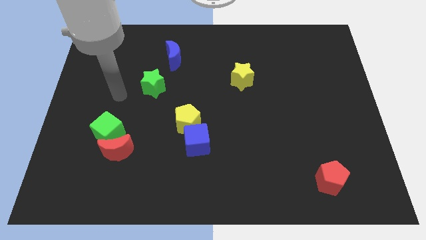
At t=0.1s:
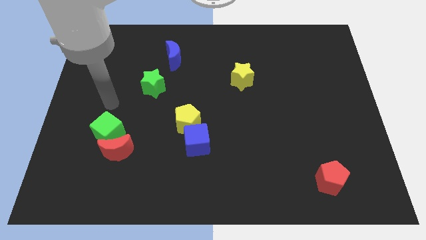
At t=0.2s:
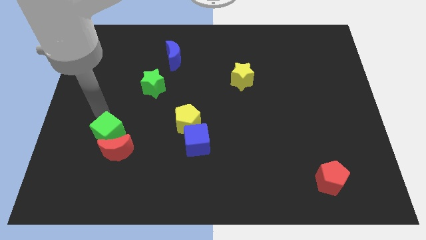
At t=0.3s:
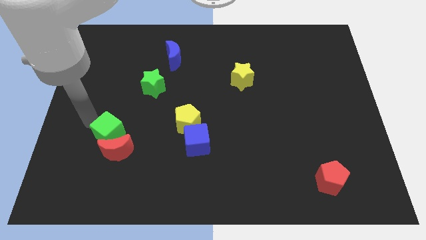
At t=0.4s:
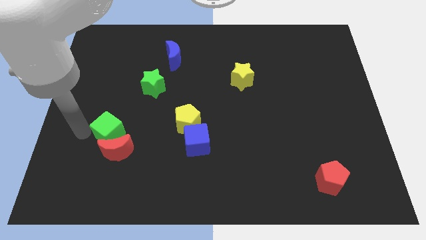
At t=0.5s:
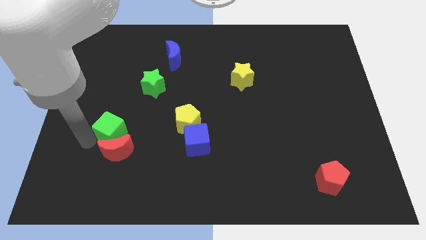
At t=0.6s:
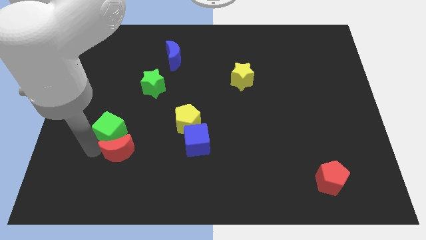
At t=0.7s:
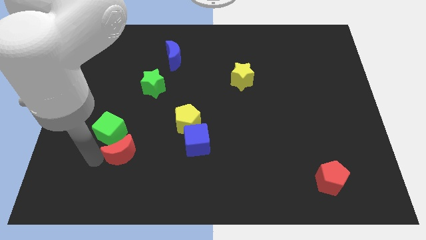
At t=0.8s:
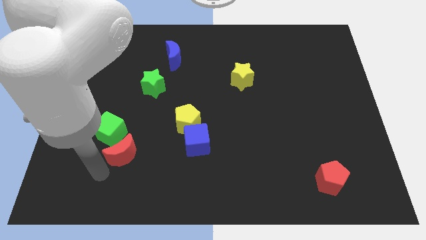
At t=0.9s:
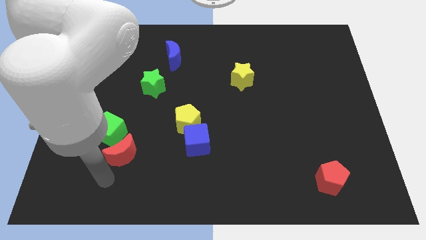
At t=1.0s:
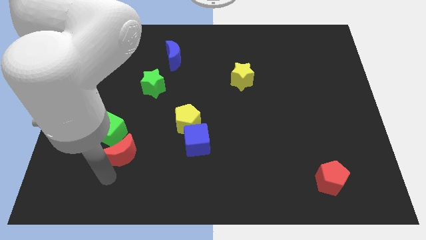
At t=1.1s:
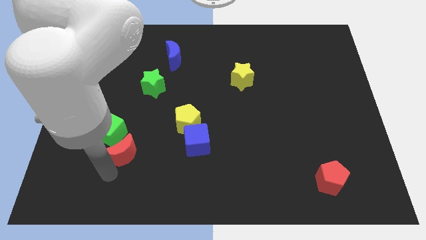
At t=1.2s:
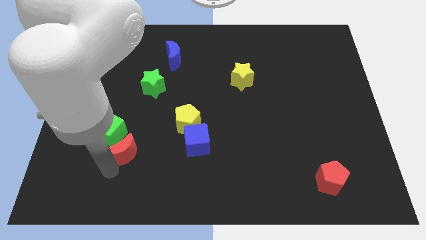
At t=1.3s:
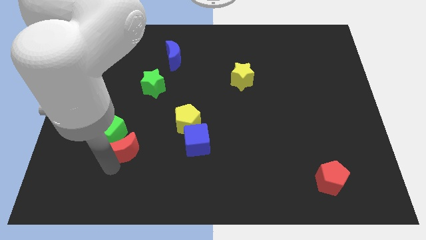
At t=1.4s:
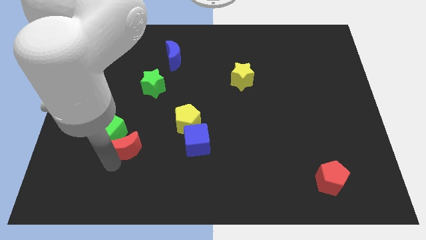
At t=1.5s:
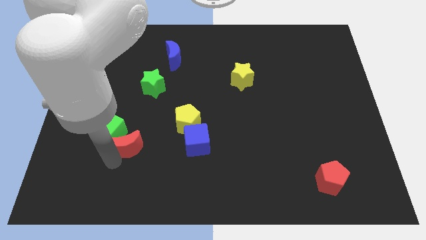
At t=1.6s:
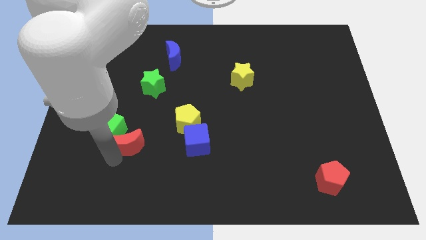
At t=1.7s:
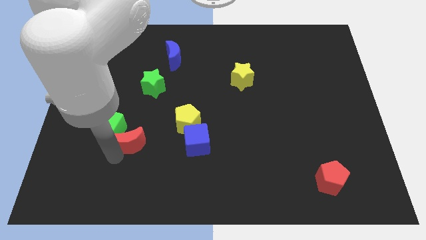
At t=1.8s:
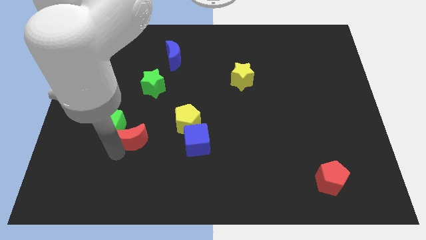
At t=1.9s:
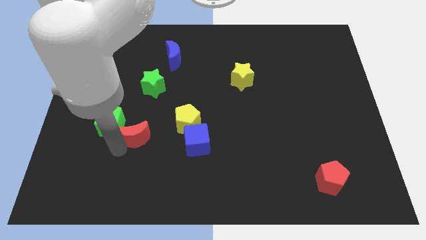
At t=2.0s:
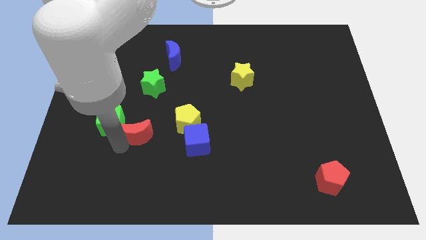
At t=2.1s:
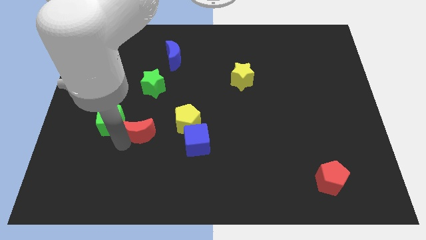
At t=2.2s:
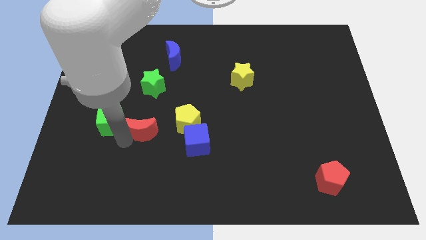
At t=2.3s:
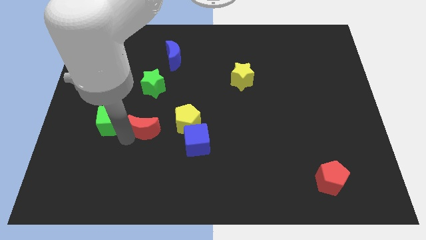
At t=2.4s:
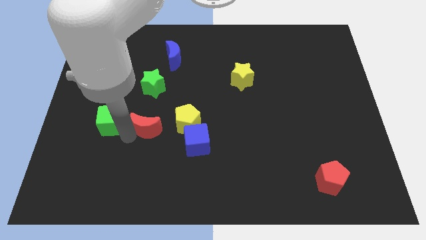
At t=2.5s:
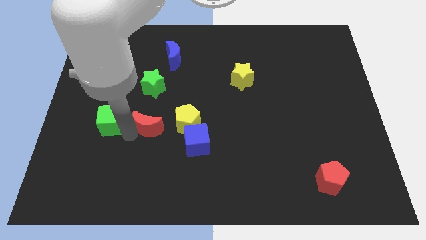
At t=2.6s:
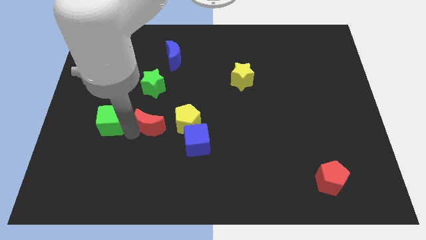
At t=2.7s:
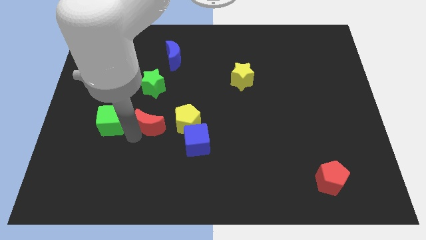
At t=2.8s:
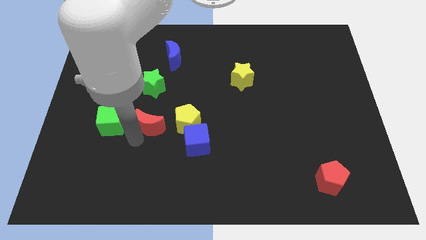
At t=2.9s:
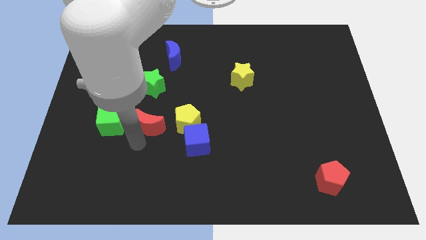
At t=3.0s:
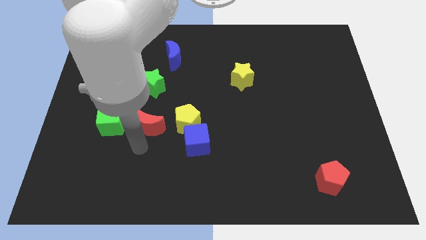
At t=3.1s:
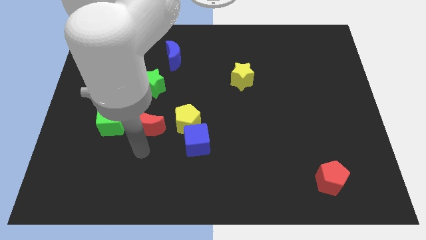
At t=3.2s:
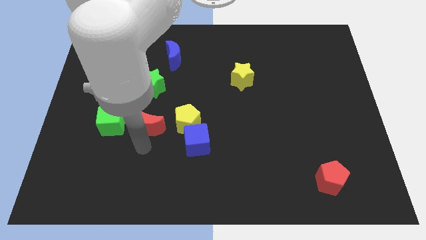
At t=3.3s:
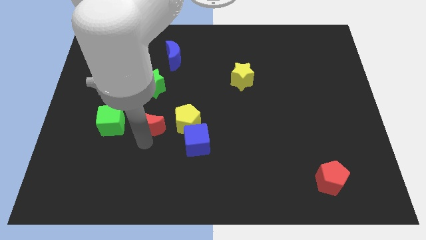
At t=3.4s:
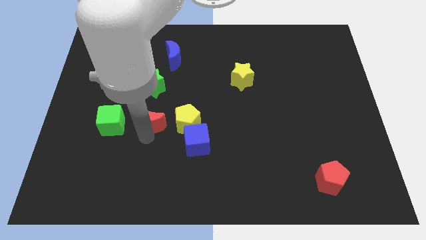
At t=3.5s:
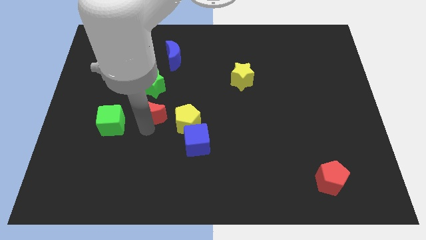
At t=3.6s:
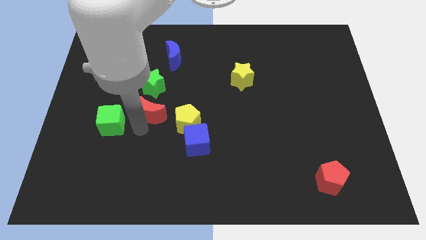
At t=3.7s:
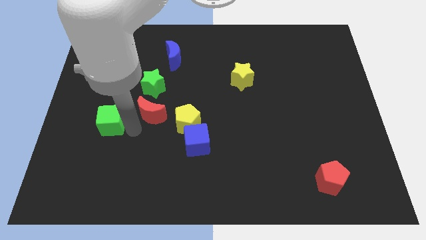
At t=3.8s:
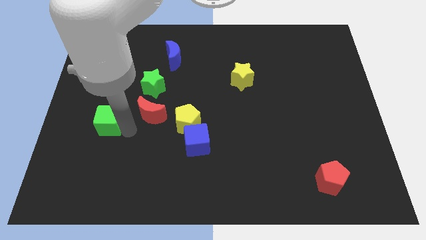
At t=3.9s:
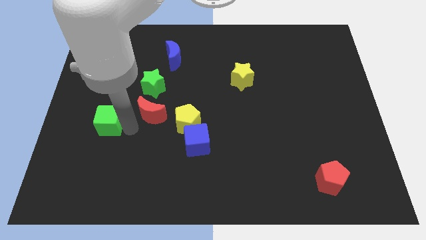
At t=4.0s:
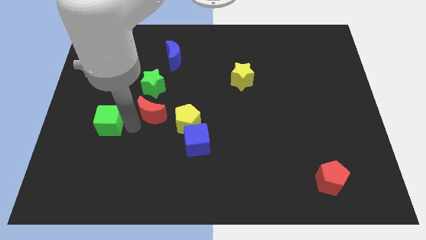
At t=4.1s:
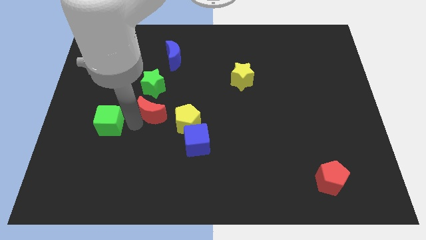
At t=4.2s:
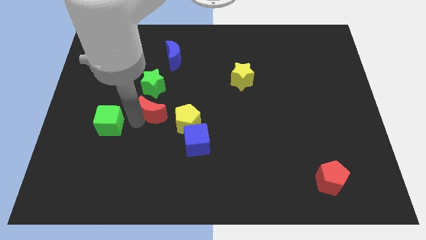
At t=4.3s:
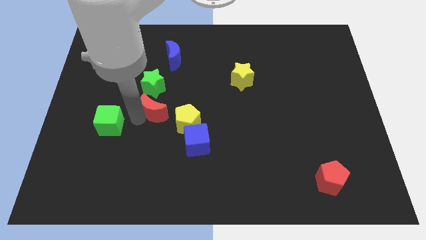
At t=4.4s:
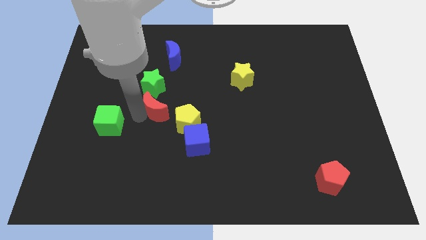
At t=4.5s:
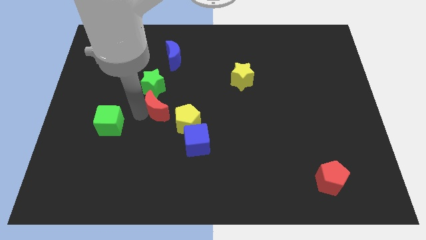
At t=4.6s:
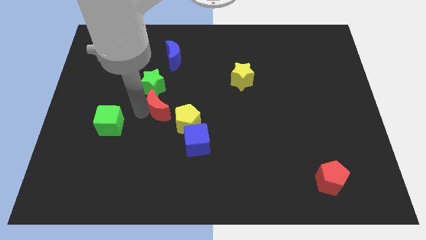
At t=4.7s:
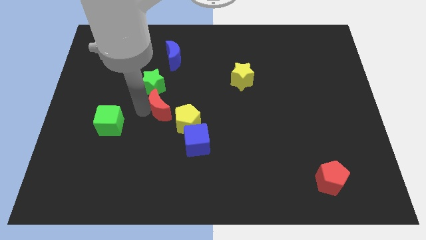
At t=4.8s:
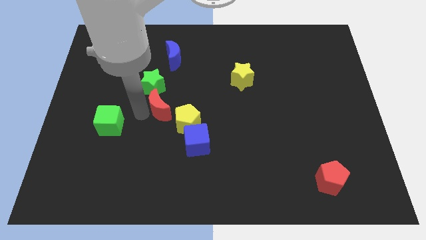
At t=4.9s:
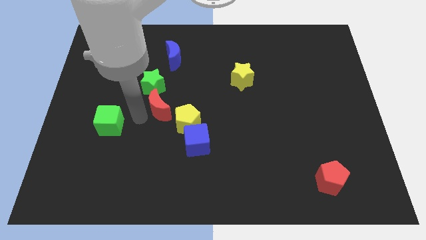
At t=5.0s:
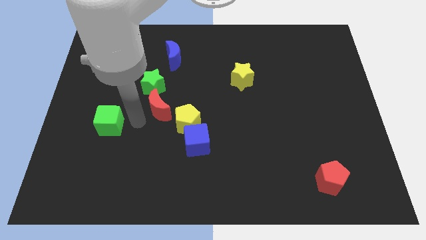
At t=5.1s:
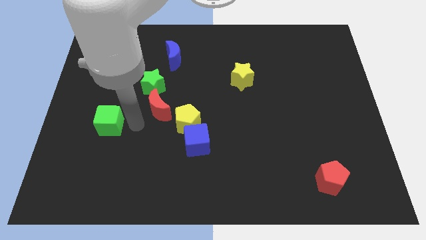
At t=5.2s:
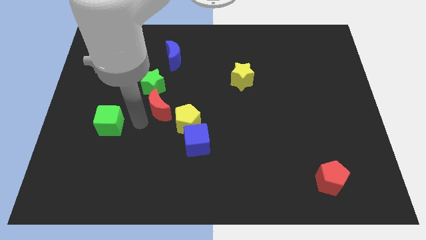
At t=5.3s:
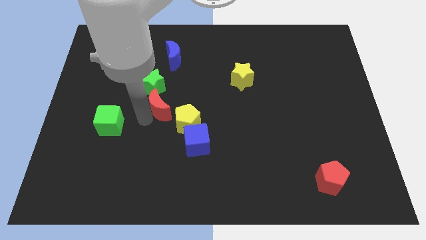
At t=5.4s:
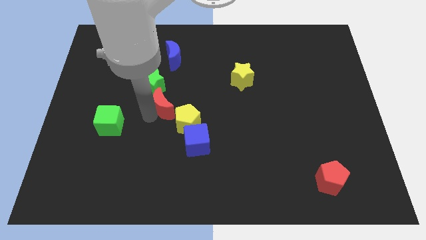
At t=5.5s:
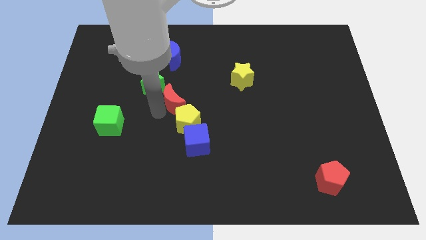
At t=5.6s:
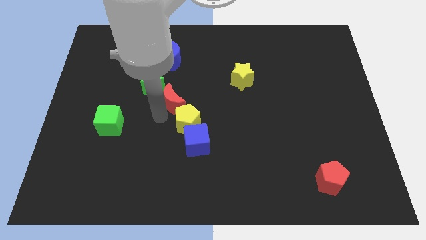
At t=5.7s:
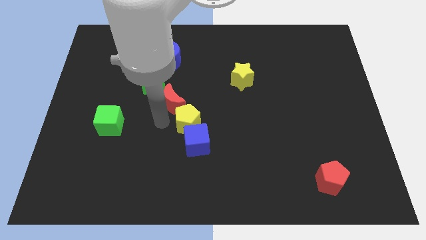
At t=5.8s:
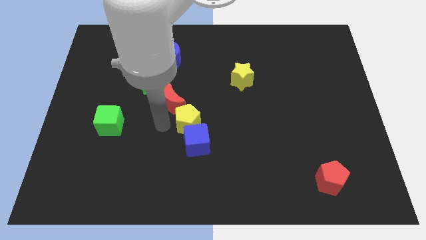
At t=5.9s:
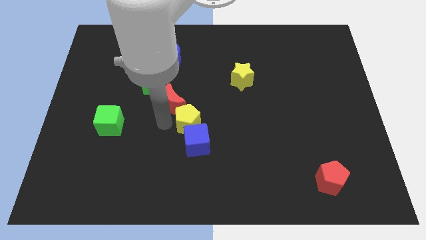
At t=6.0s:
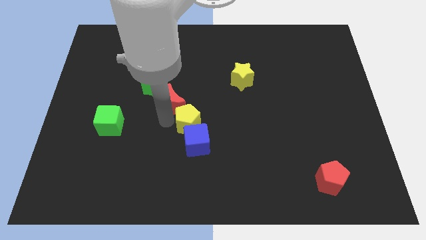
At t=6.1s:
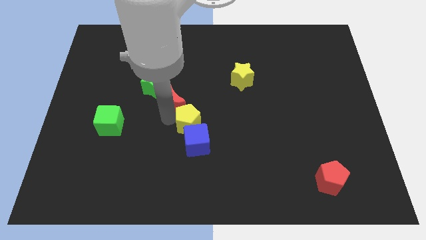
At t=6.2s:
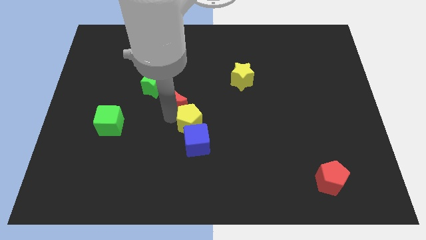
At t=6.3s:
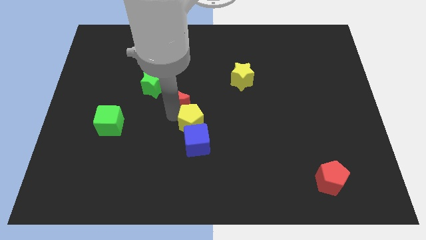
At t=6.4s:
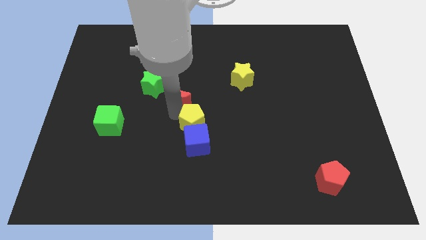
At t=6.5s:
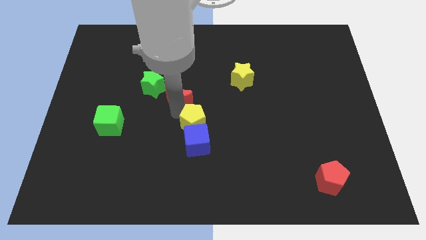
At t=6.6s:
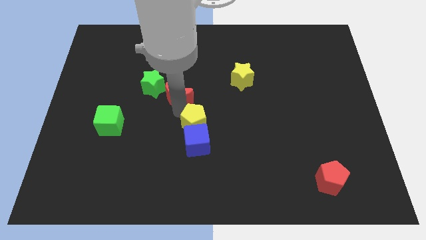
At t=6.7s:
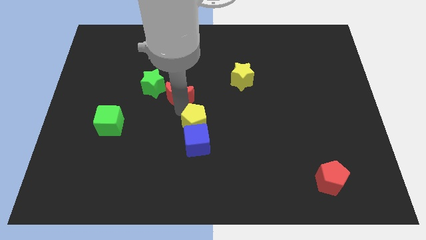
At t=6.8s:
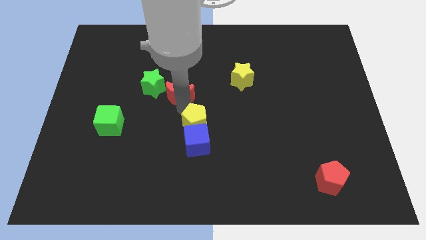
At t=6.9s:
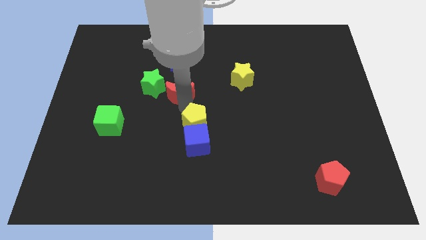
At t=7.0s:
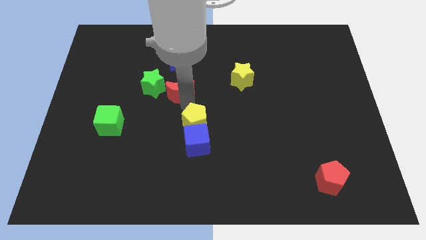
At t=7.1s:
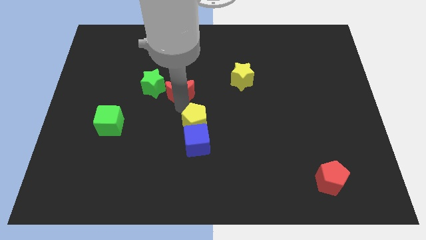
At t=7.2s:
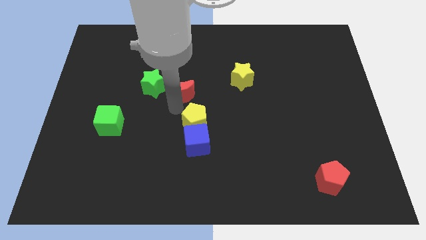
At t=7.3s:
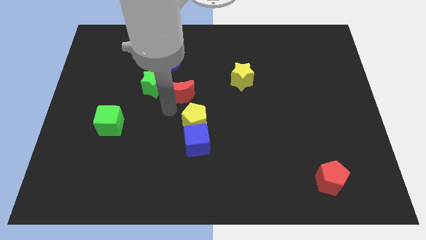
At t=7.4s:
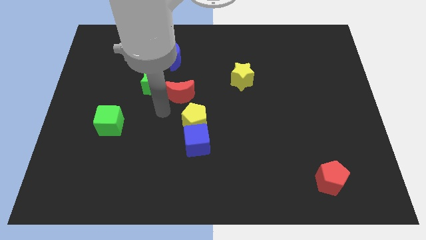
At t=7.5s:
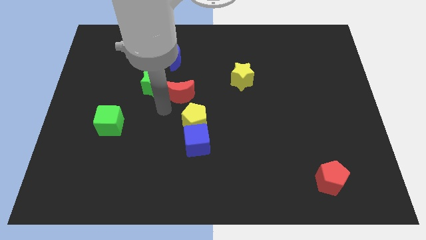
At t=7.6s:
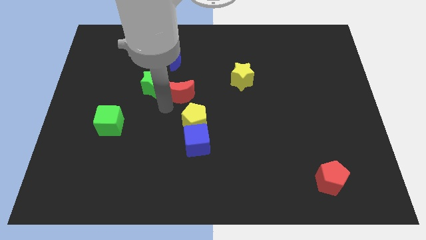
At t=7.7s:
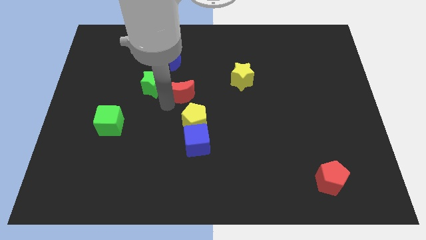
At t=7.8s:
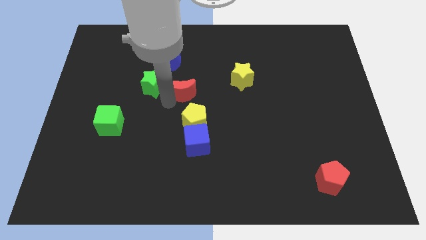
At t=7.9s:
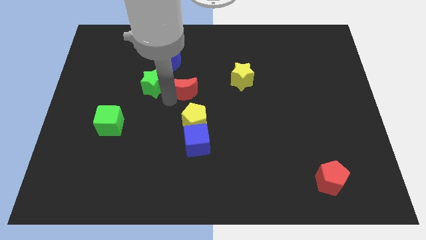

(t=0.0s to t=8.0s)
push the red moon to the left of the yellow star
